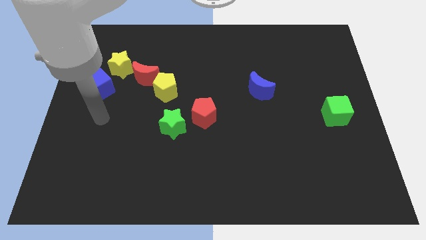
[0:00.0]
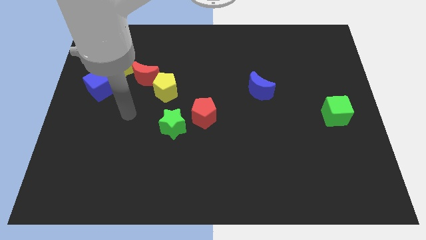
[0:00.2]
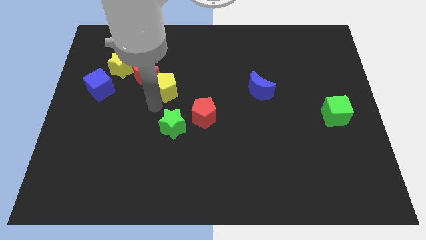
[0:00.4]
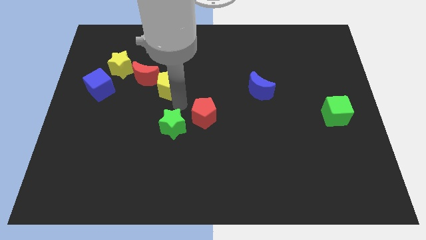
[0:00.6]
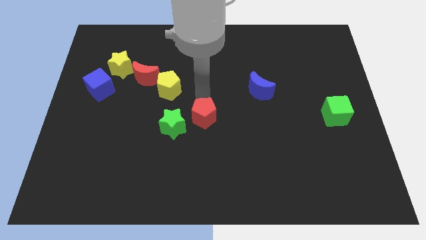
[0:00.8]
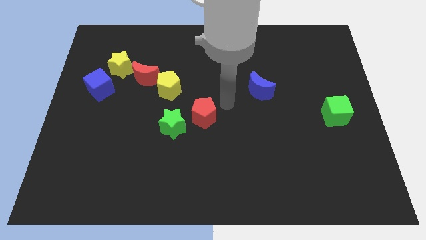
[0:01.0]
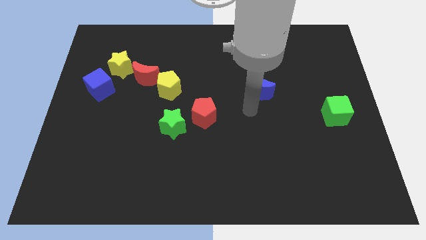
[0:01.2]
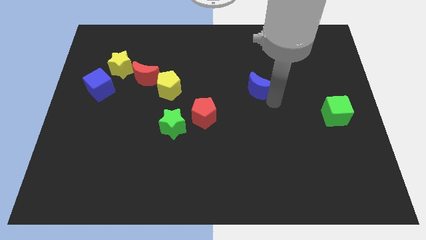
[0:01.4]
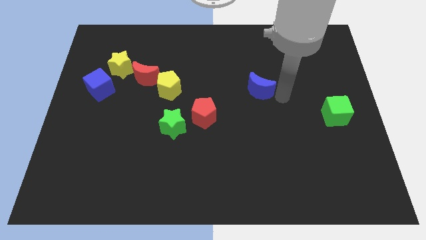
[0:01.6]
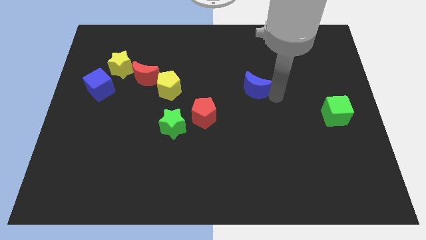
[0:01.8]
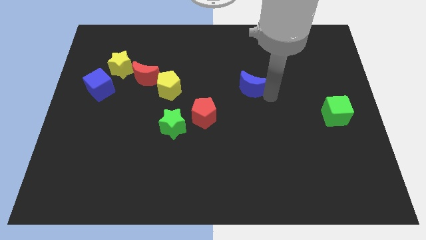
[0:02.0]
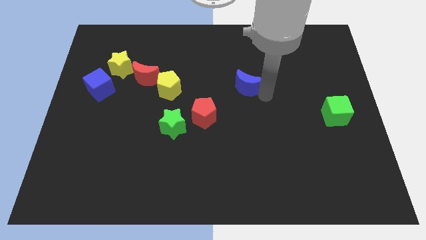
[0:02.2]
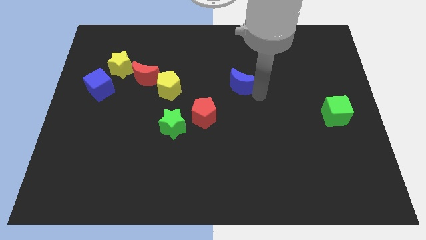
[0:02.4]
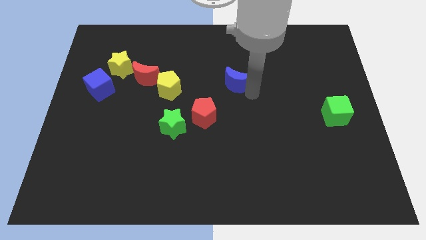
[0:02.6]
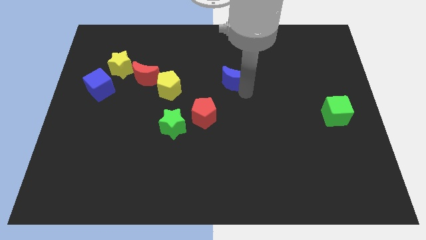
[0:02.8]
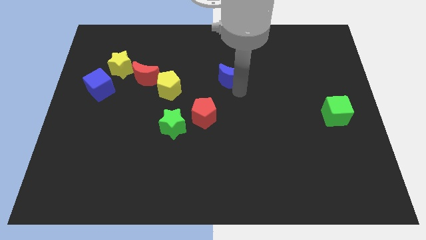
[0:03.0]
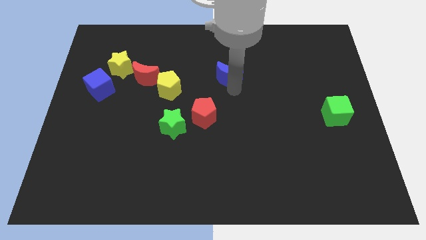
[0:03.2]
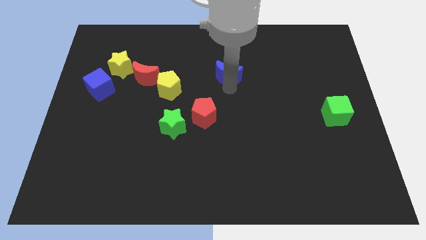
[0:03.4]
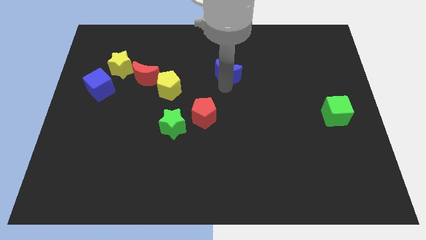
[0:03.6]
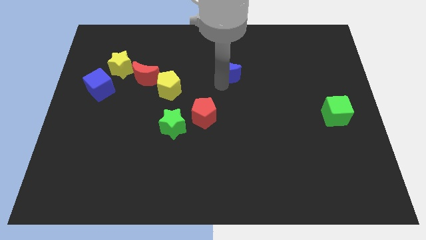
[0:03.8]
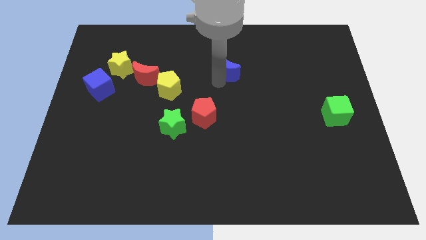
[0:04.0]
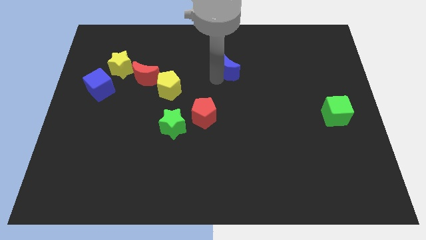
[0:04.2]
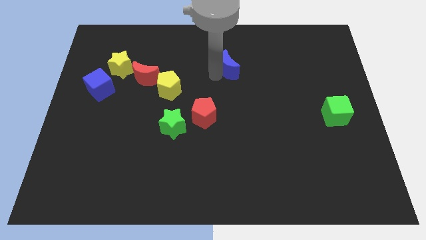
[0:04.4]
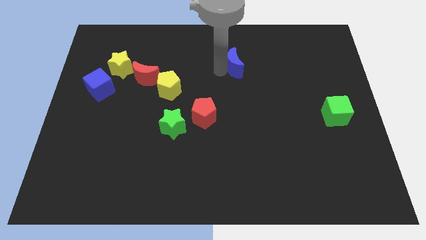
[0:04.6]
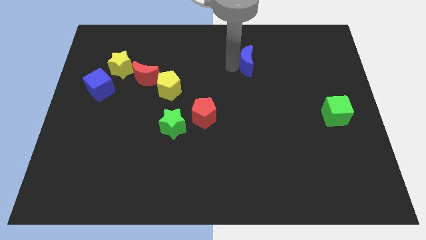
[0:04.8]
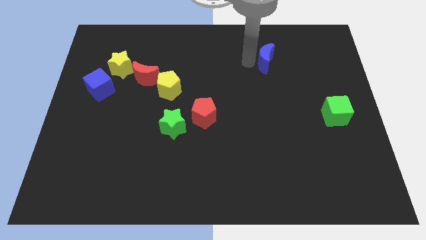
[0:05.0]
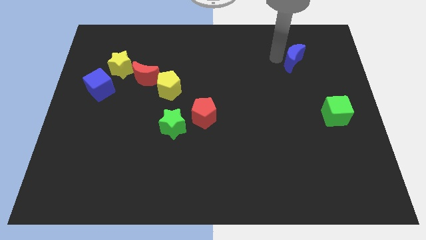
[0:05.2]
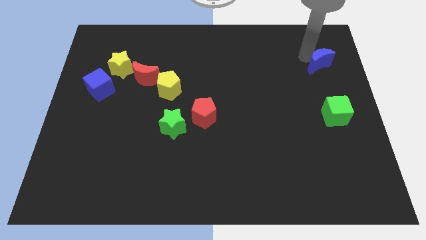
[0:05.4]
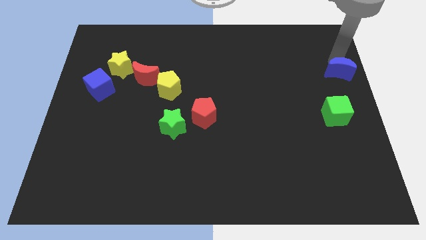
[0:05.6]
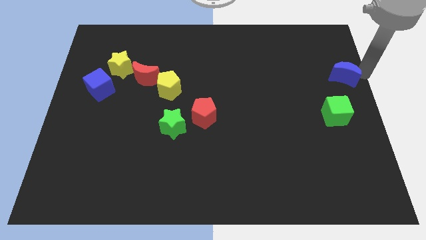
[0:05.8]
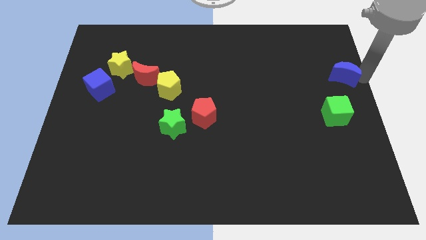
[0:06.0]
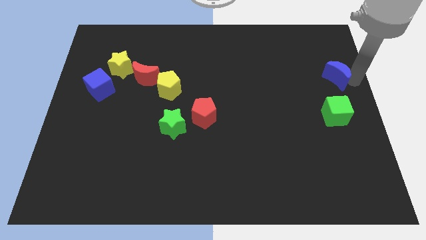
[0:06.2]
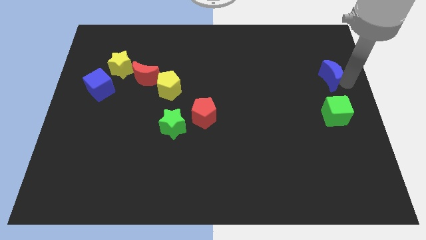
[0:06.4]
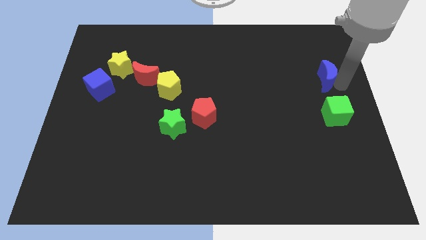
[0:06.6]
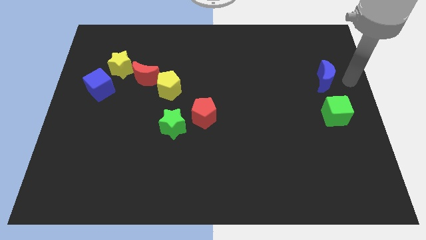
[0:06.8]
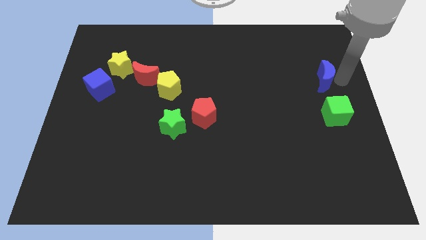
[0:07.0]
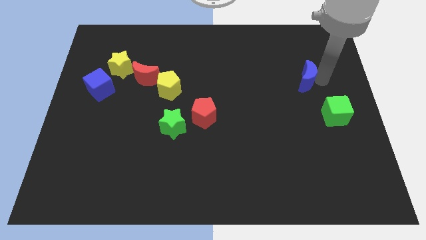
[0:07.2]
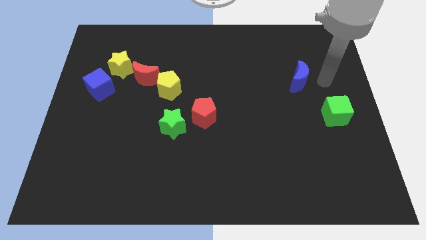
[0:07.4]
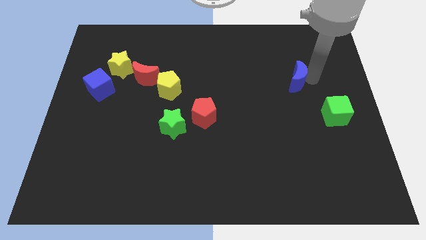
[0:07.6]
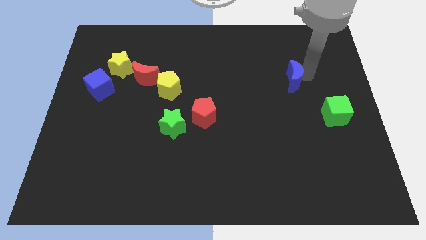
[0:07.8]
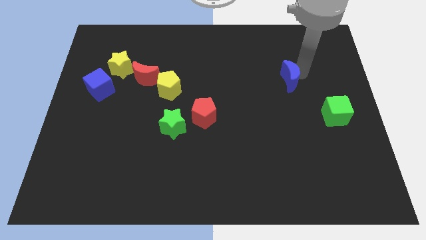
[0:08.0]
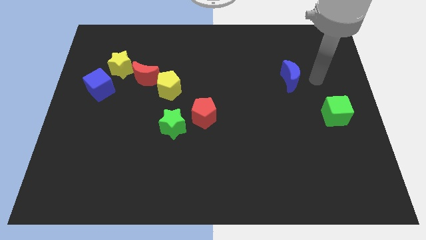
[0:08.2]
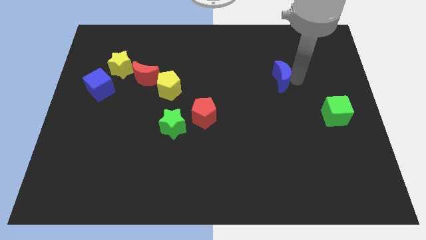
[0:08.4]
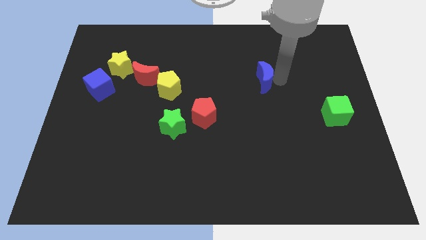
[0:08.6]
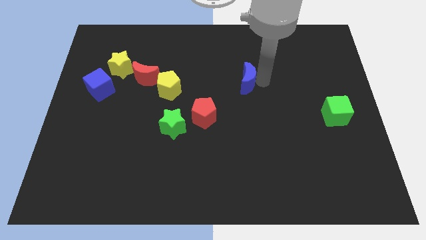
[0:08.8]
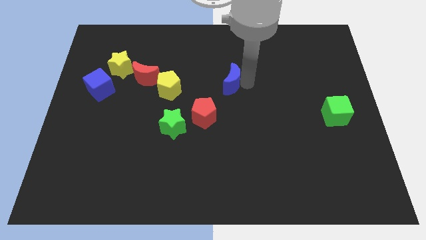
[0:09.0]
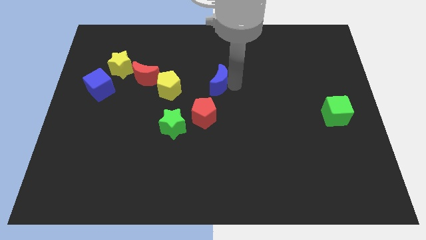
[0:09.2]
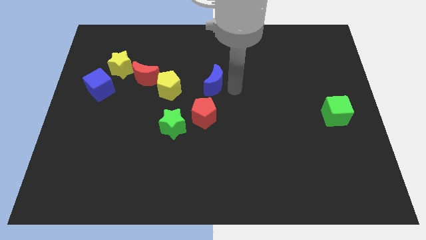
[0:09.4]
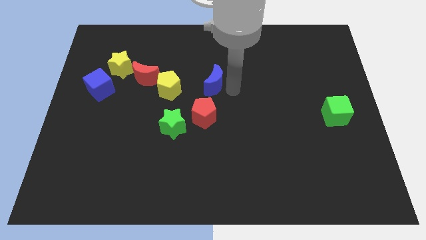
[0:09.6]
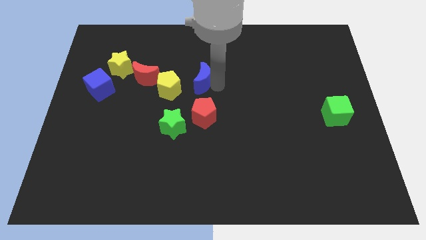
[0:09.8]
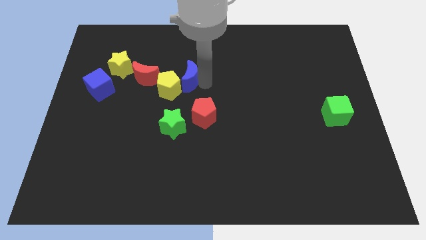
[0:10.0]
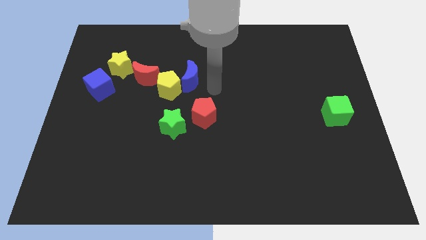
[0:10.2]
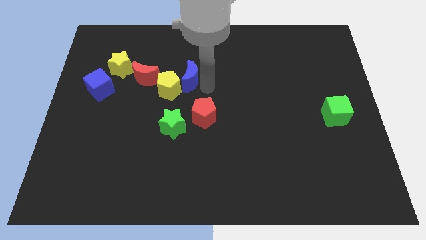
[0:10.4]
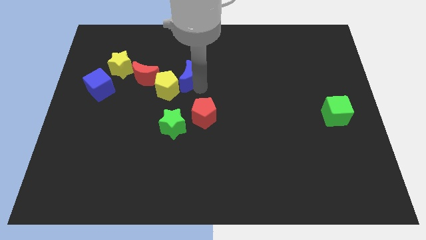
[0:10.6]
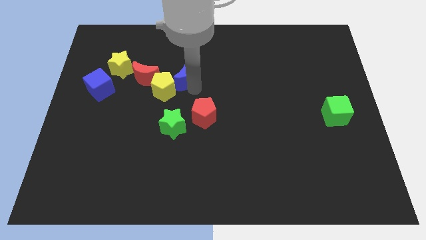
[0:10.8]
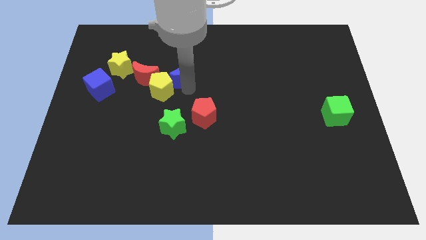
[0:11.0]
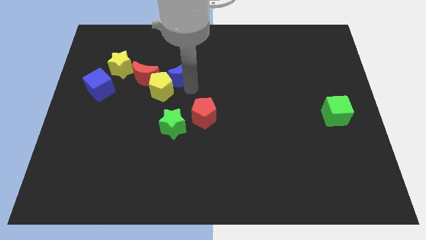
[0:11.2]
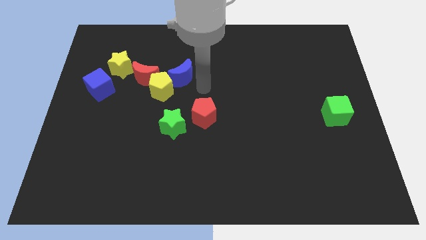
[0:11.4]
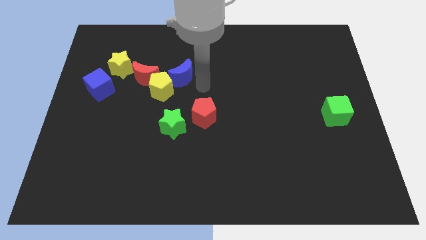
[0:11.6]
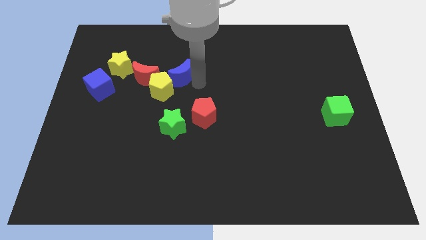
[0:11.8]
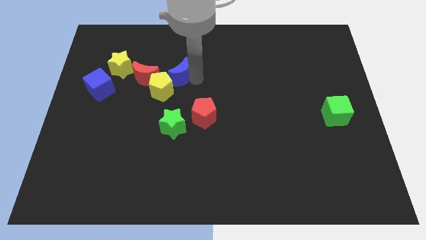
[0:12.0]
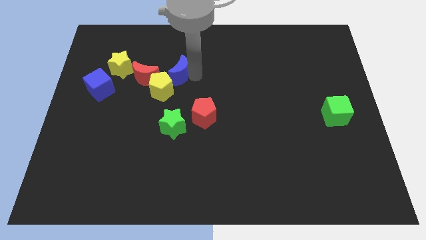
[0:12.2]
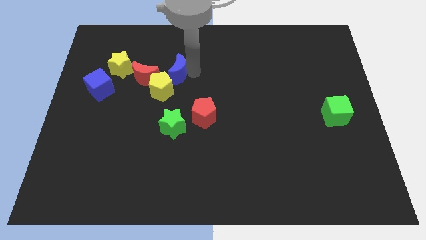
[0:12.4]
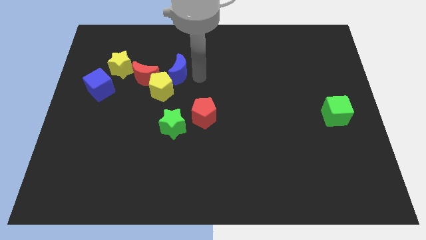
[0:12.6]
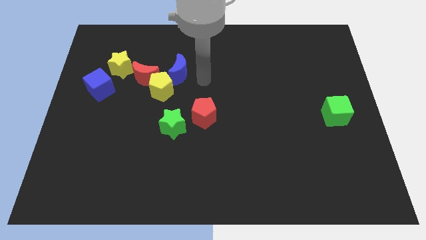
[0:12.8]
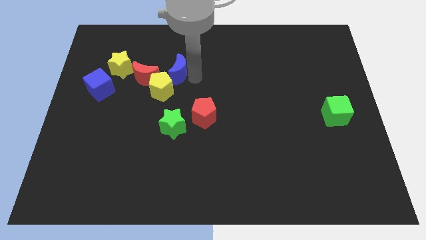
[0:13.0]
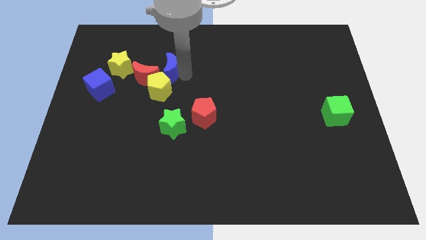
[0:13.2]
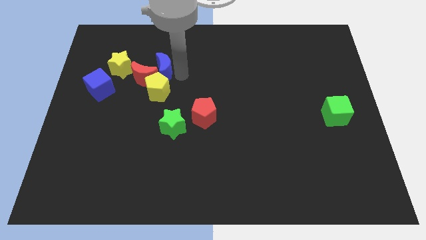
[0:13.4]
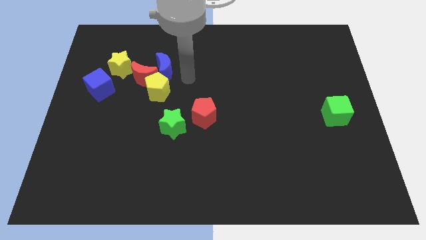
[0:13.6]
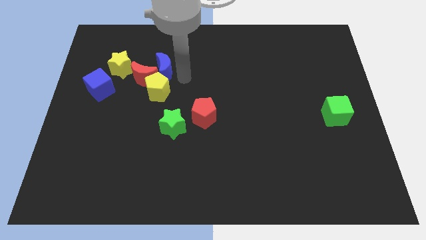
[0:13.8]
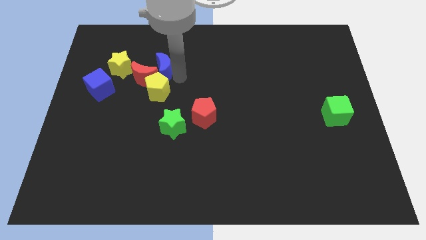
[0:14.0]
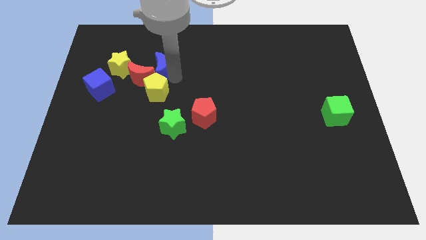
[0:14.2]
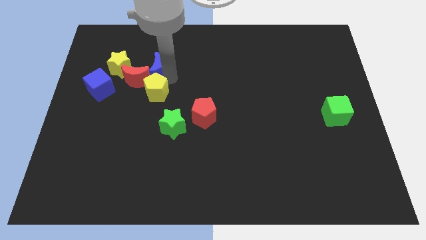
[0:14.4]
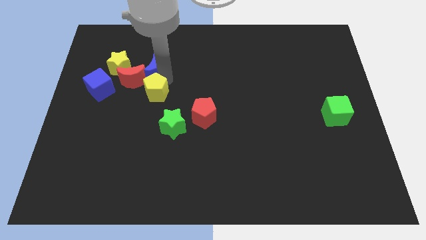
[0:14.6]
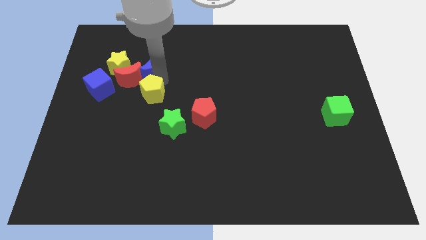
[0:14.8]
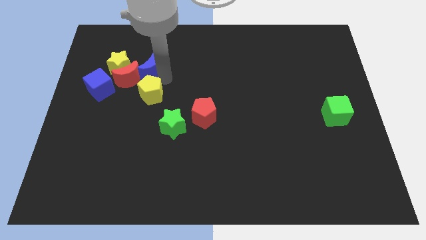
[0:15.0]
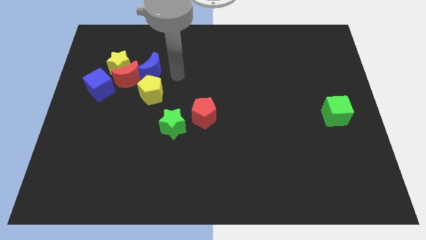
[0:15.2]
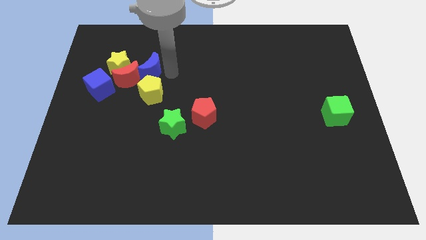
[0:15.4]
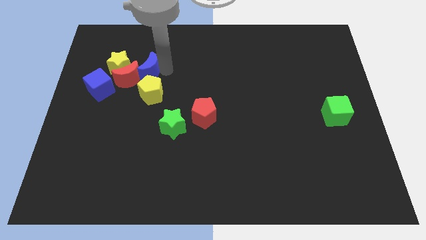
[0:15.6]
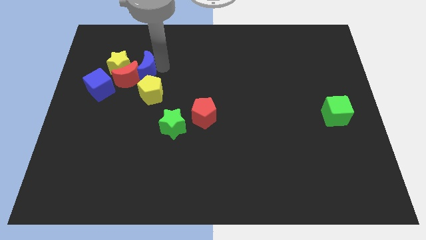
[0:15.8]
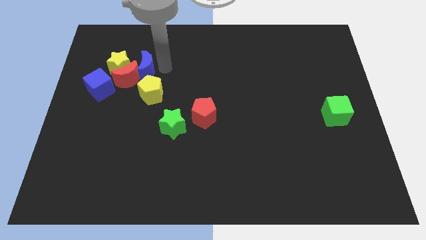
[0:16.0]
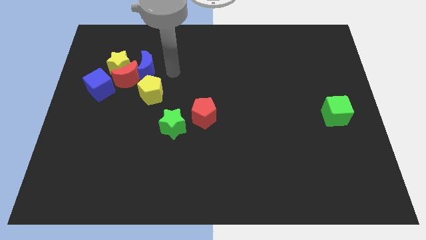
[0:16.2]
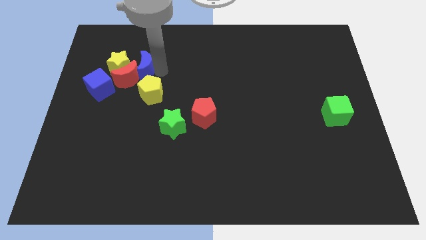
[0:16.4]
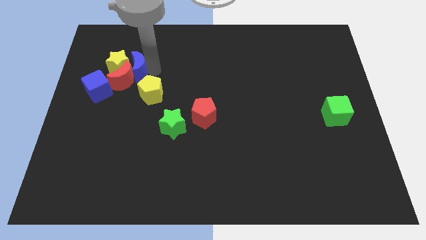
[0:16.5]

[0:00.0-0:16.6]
move the blue moon close to the yellow star
